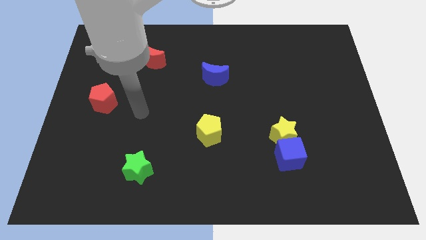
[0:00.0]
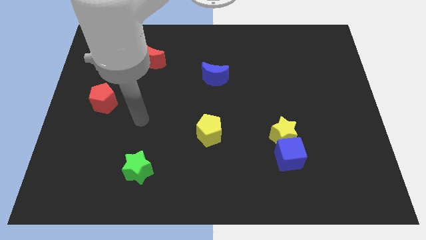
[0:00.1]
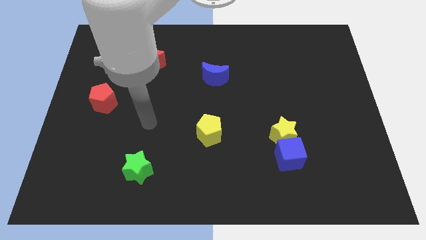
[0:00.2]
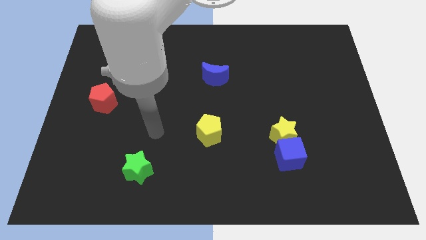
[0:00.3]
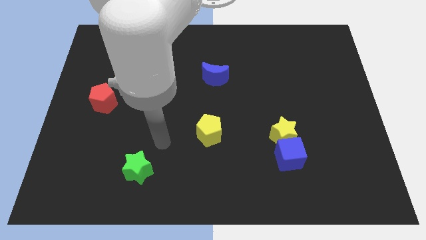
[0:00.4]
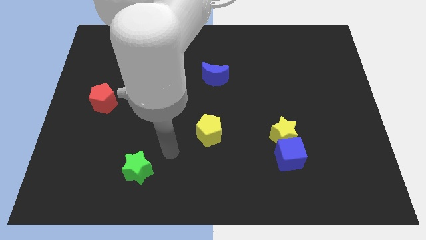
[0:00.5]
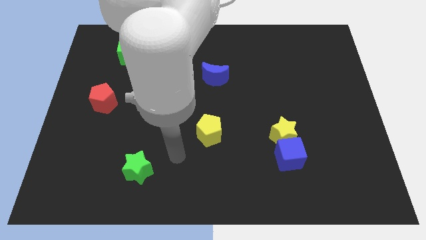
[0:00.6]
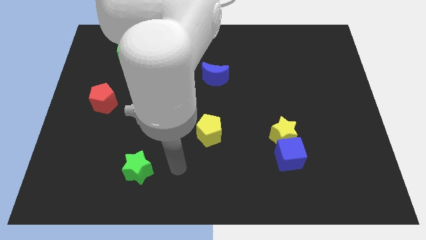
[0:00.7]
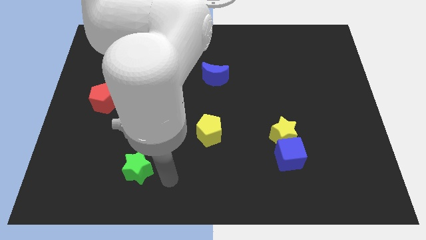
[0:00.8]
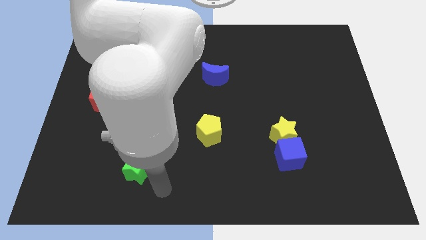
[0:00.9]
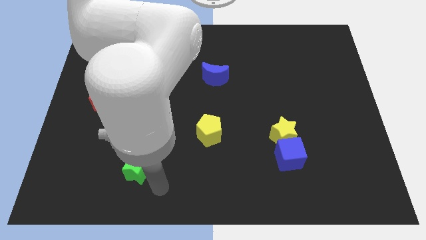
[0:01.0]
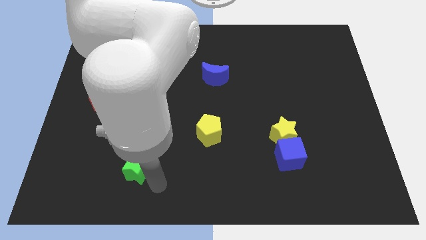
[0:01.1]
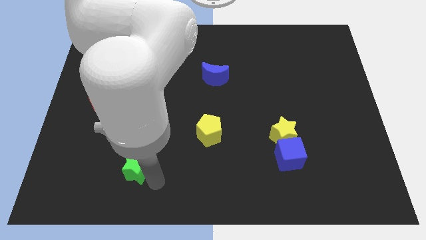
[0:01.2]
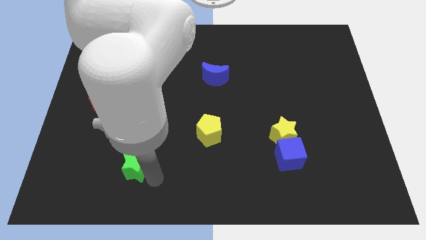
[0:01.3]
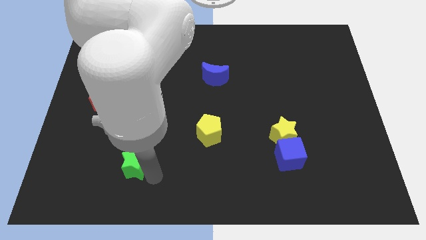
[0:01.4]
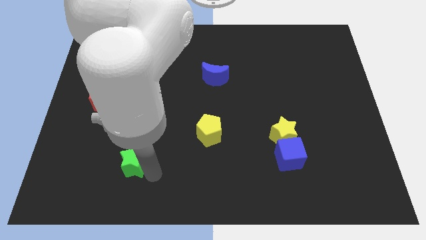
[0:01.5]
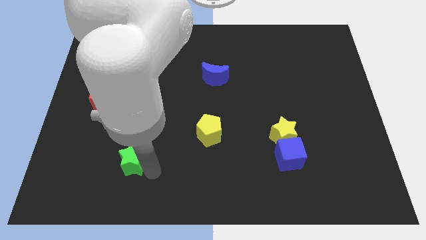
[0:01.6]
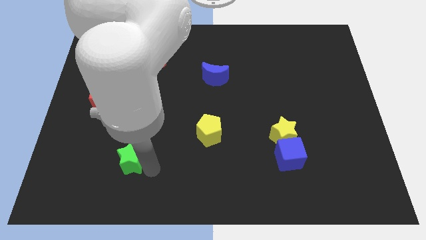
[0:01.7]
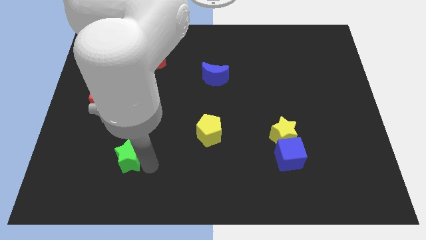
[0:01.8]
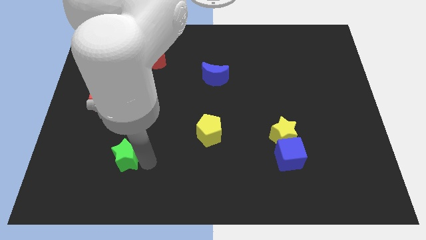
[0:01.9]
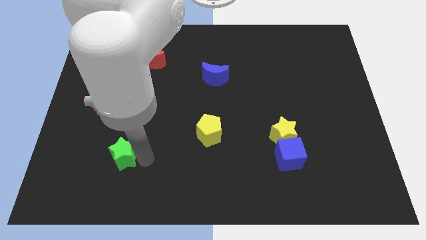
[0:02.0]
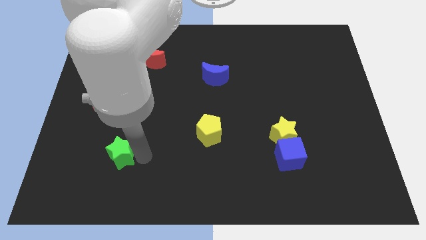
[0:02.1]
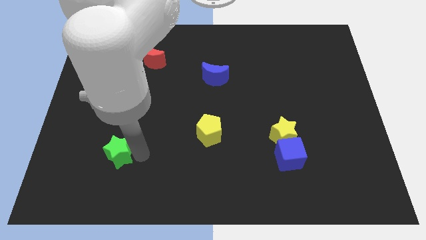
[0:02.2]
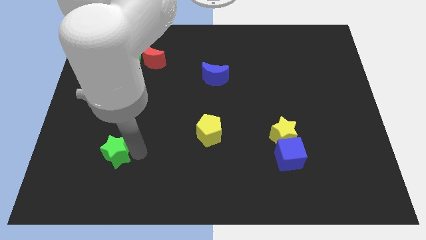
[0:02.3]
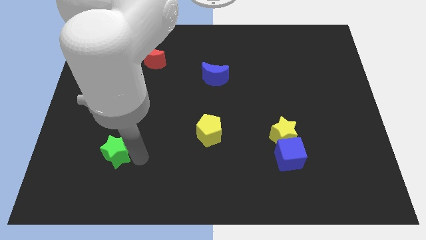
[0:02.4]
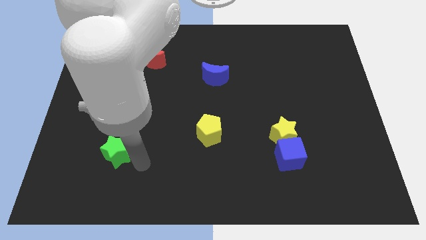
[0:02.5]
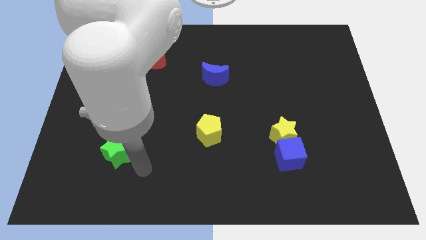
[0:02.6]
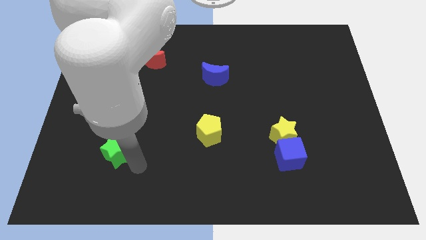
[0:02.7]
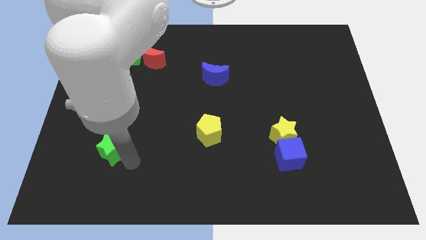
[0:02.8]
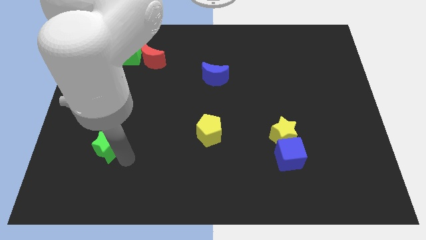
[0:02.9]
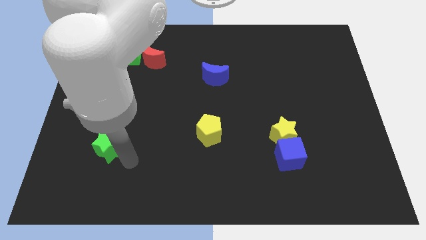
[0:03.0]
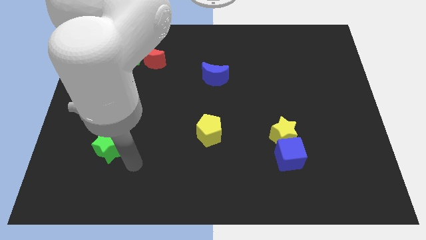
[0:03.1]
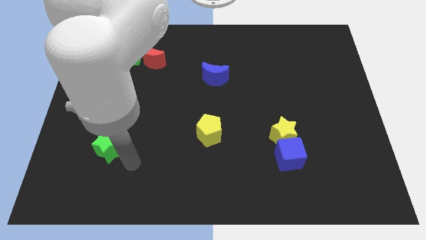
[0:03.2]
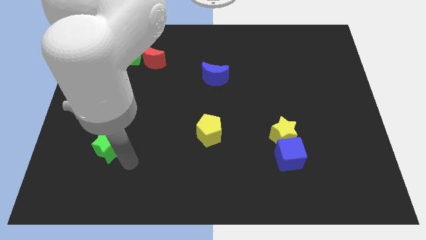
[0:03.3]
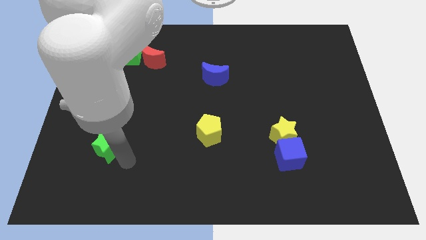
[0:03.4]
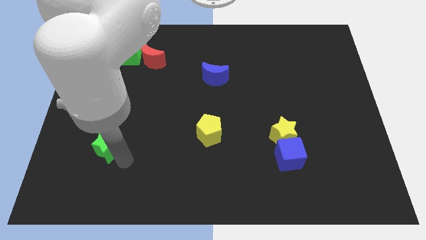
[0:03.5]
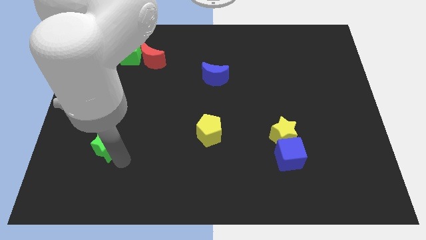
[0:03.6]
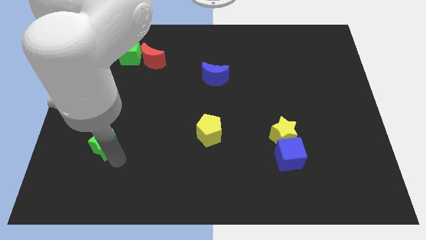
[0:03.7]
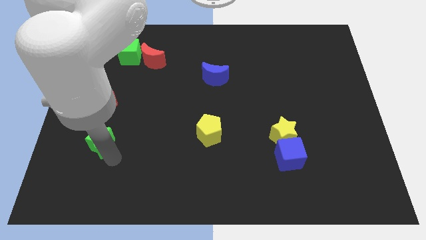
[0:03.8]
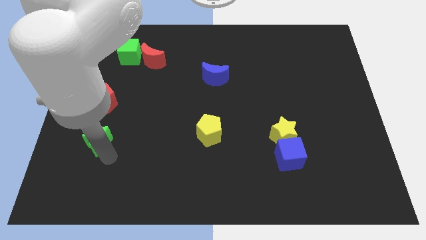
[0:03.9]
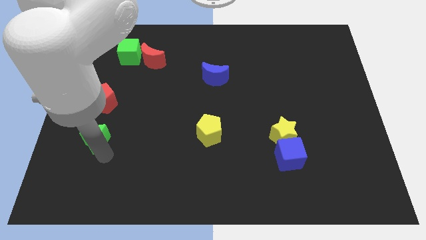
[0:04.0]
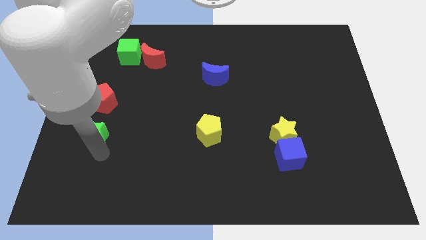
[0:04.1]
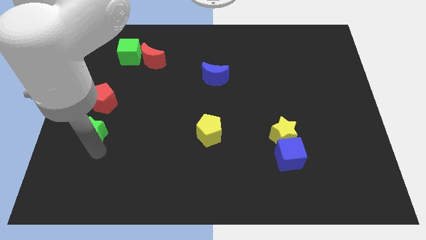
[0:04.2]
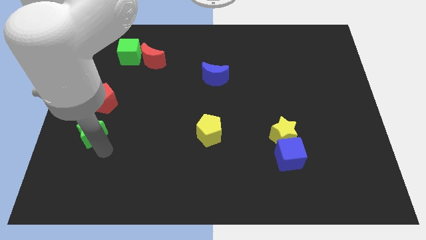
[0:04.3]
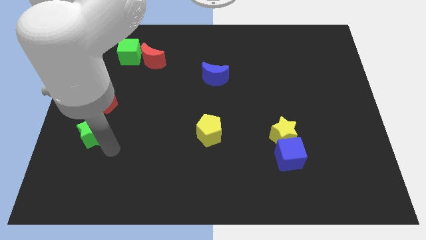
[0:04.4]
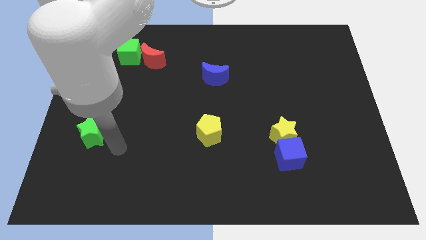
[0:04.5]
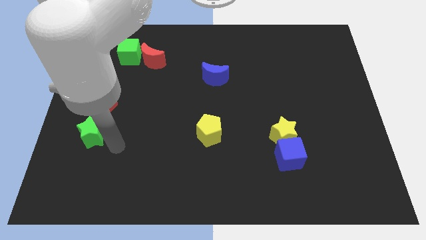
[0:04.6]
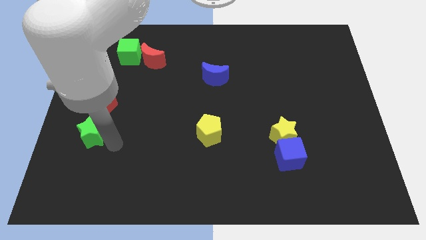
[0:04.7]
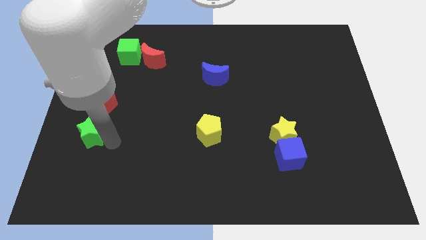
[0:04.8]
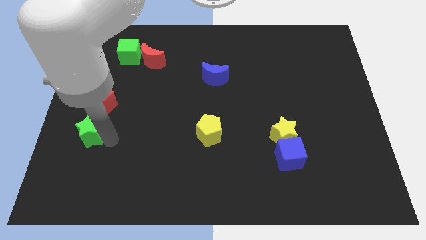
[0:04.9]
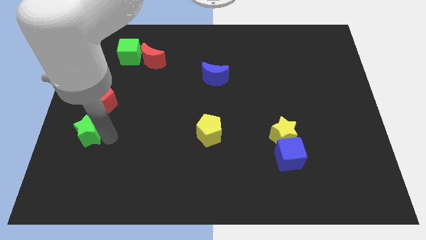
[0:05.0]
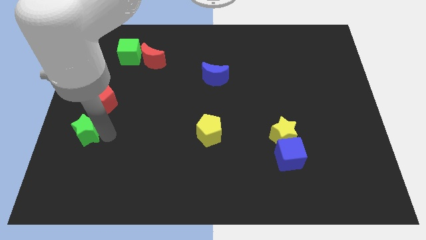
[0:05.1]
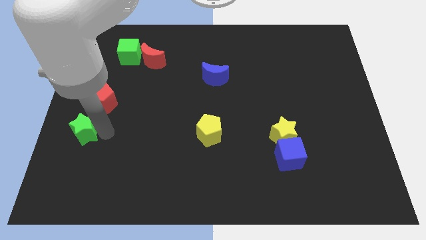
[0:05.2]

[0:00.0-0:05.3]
push the green star to the left side

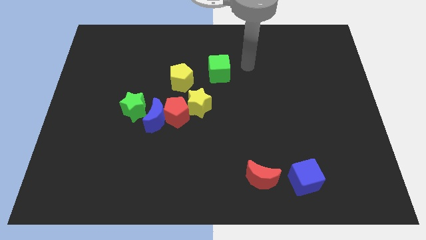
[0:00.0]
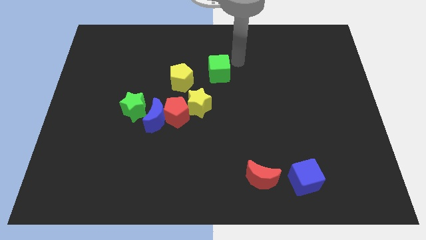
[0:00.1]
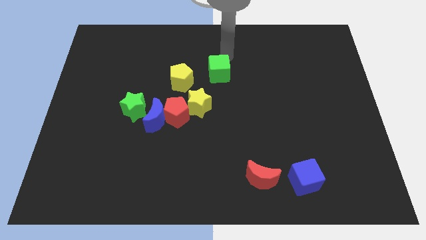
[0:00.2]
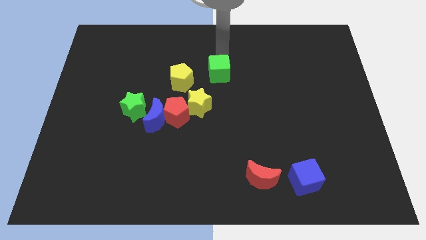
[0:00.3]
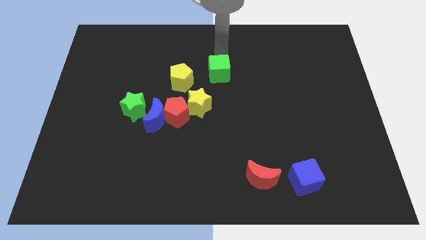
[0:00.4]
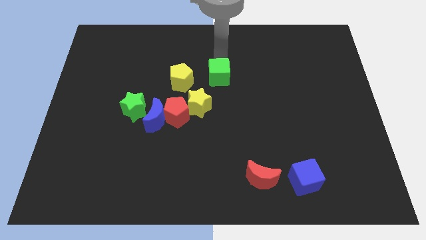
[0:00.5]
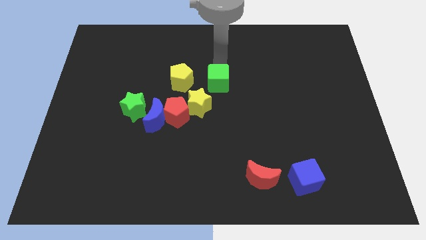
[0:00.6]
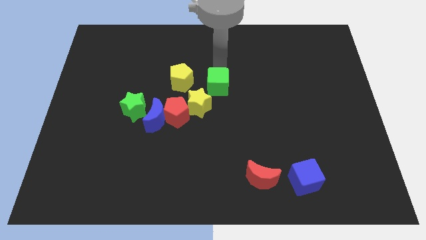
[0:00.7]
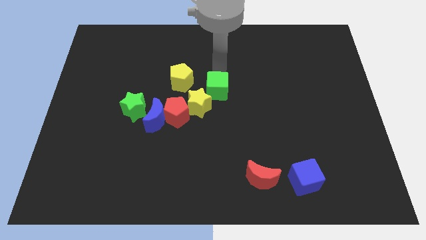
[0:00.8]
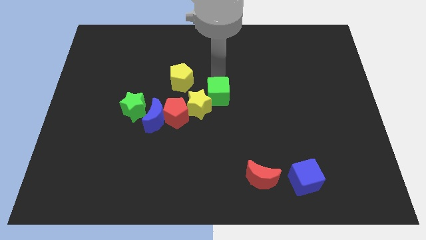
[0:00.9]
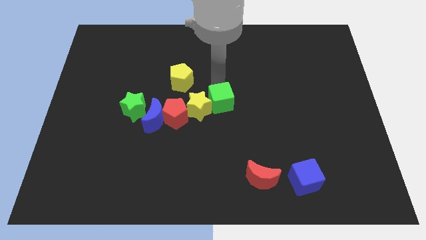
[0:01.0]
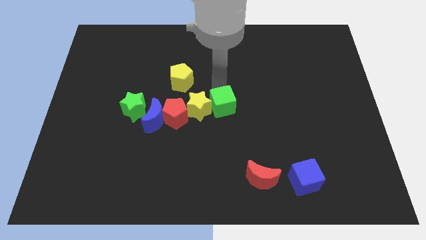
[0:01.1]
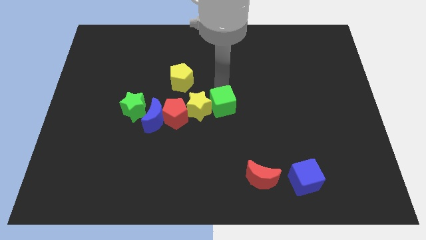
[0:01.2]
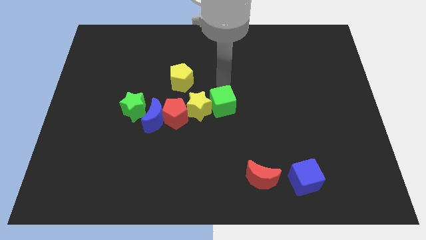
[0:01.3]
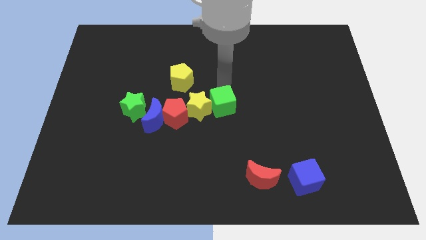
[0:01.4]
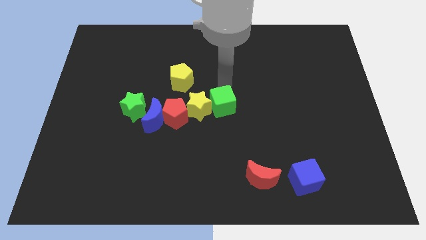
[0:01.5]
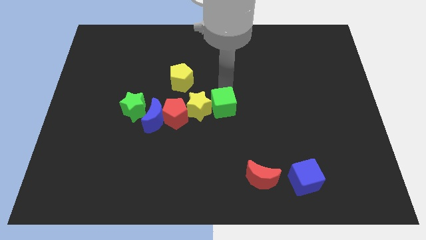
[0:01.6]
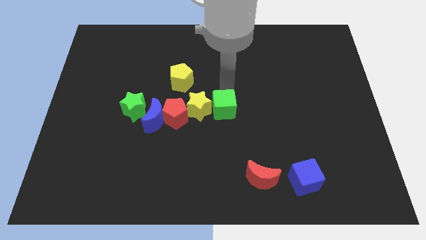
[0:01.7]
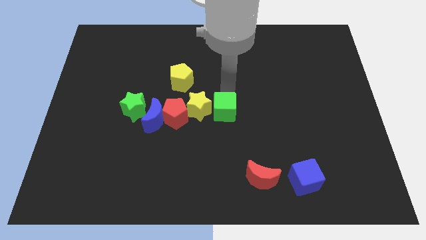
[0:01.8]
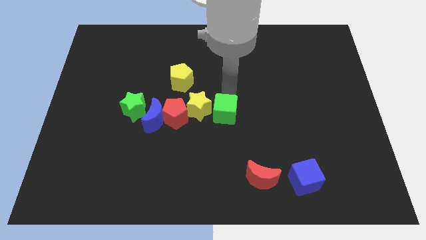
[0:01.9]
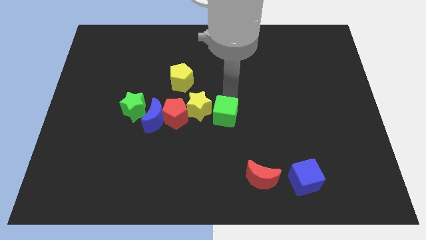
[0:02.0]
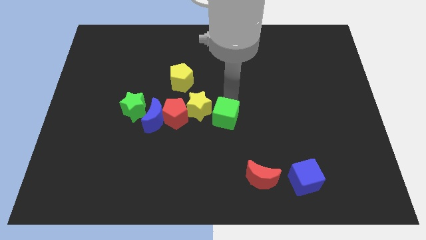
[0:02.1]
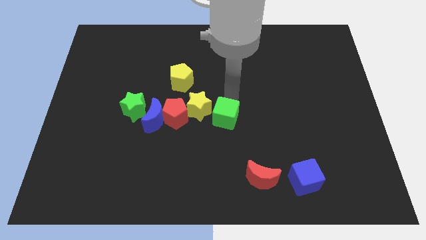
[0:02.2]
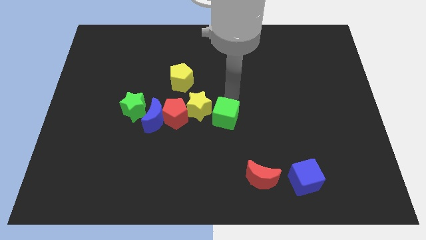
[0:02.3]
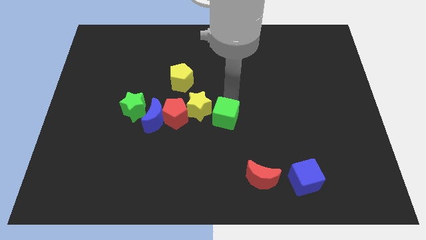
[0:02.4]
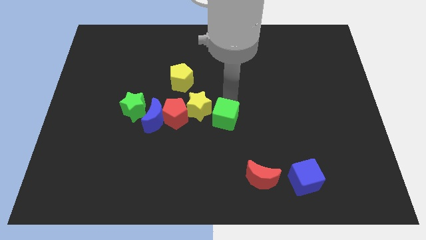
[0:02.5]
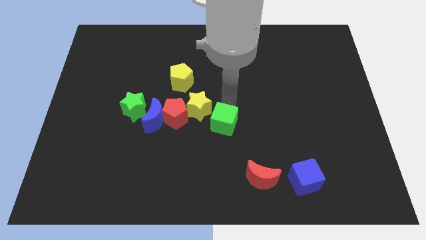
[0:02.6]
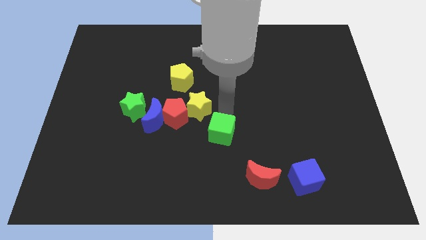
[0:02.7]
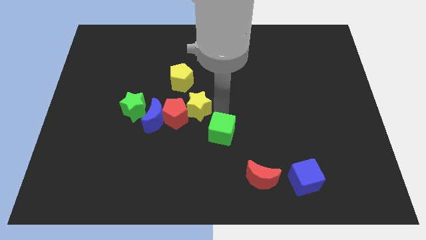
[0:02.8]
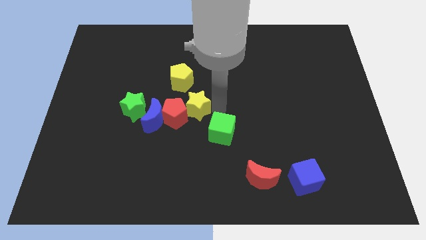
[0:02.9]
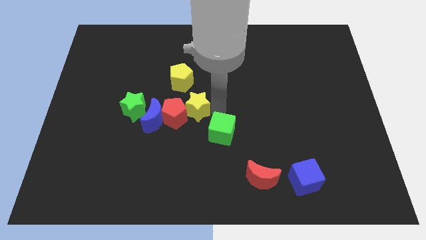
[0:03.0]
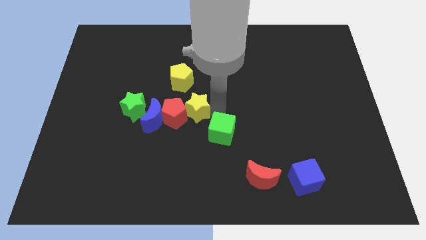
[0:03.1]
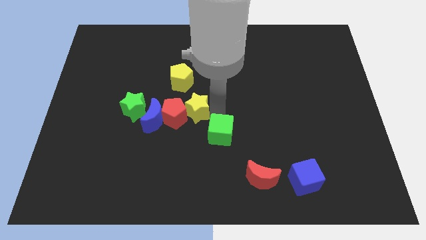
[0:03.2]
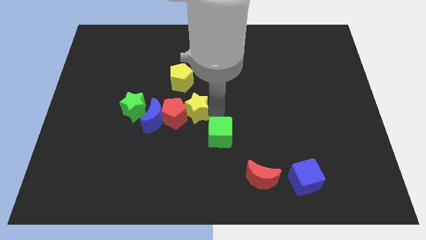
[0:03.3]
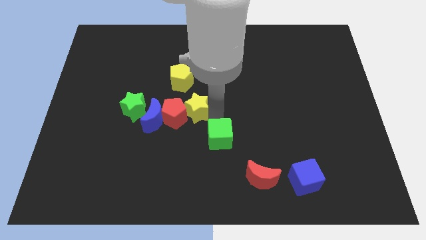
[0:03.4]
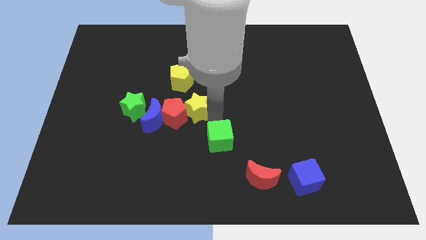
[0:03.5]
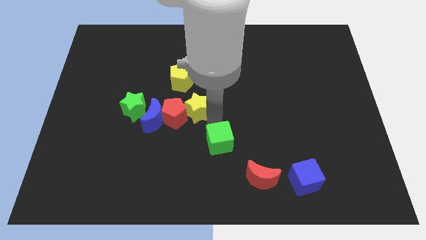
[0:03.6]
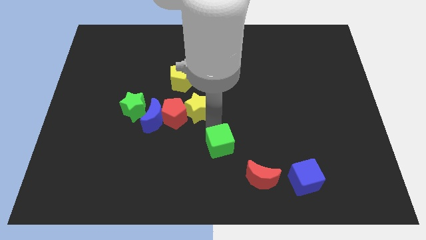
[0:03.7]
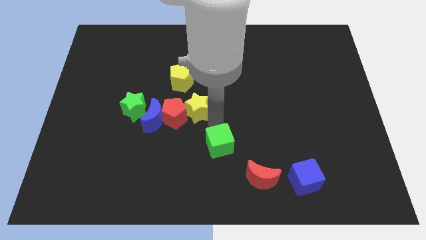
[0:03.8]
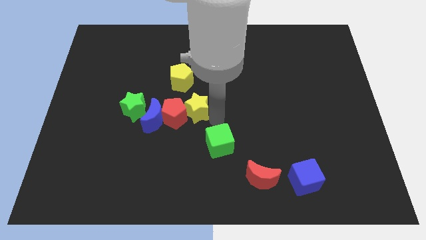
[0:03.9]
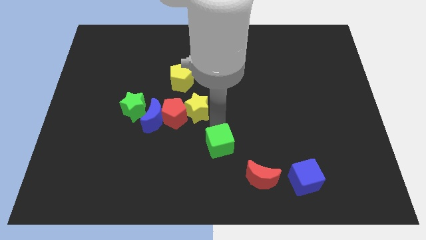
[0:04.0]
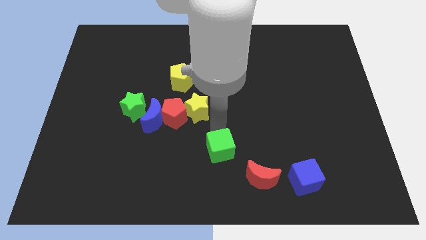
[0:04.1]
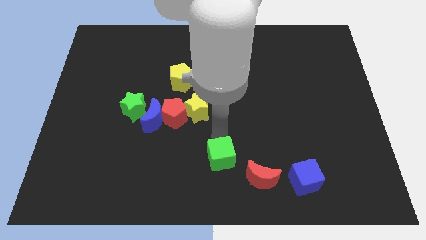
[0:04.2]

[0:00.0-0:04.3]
move the green cube to the bottom
